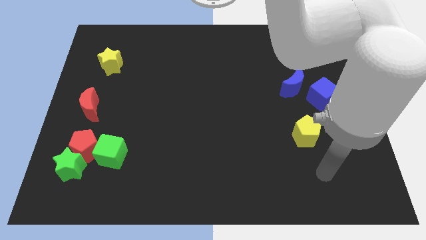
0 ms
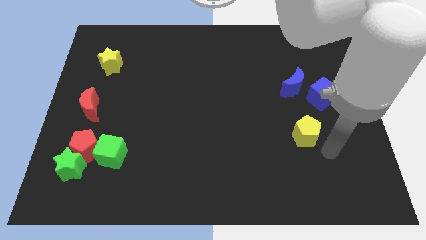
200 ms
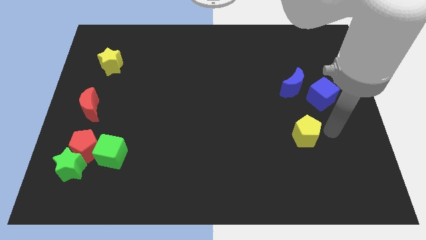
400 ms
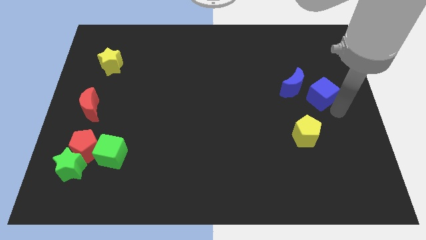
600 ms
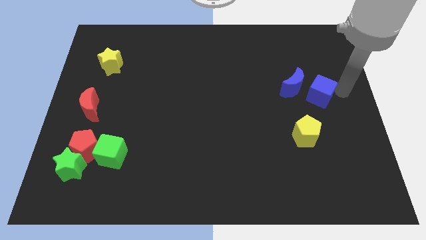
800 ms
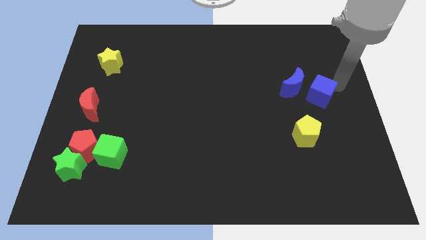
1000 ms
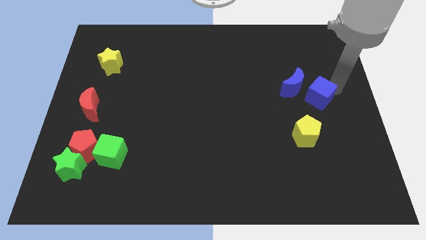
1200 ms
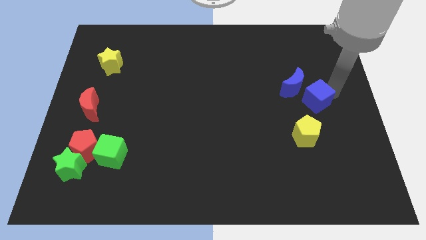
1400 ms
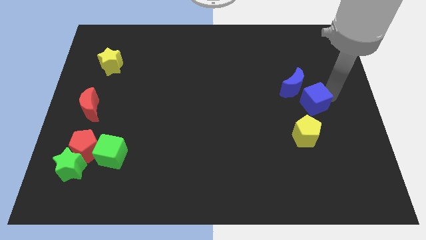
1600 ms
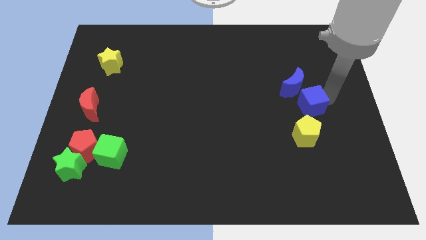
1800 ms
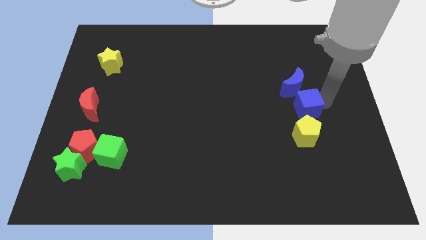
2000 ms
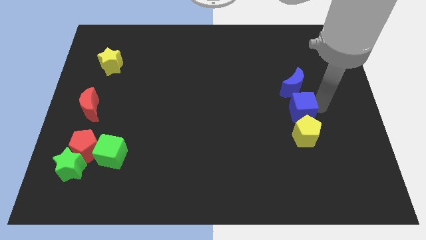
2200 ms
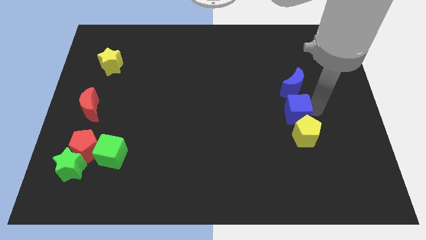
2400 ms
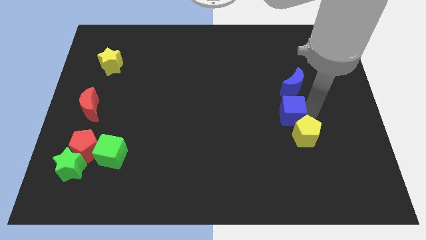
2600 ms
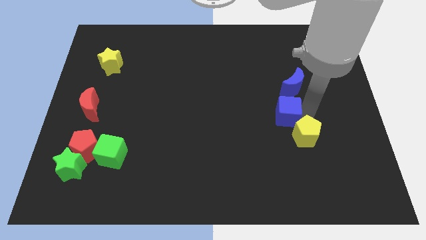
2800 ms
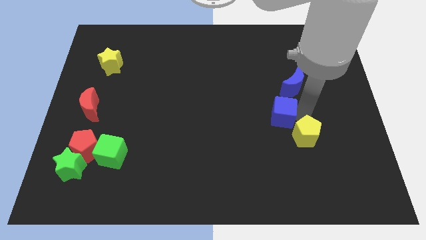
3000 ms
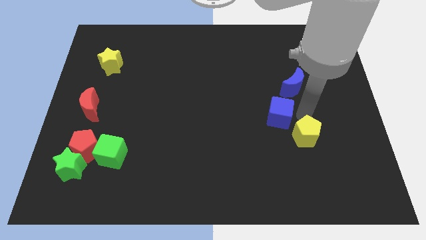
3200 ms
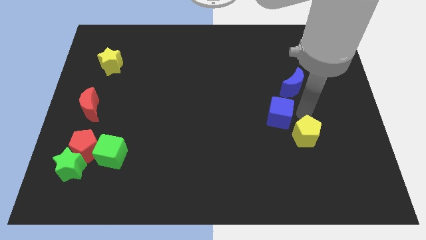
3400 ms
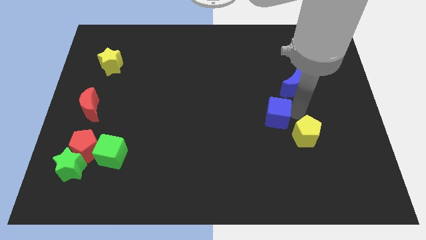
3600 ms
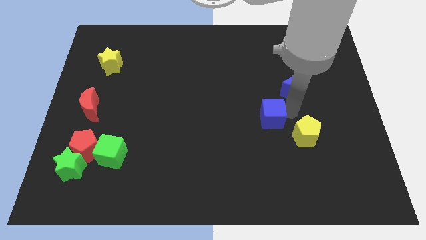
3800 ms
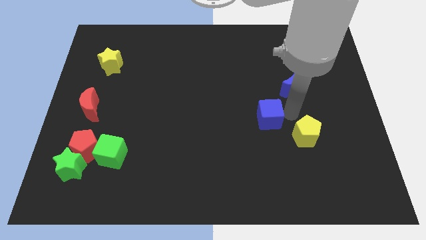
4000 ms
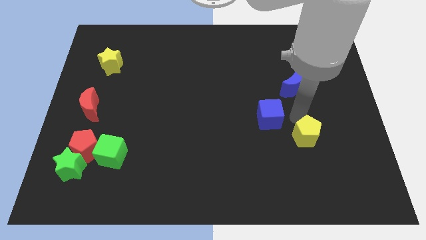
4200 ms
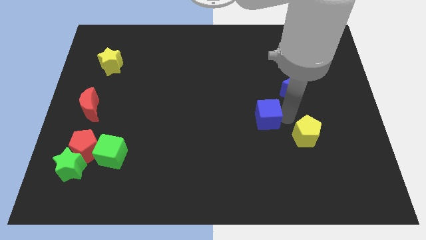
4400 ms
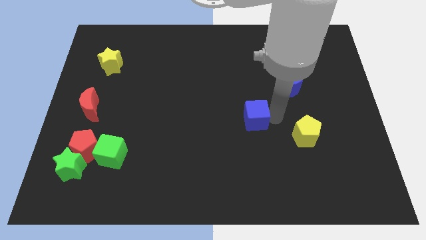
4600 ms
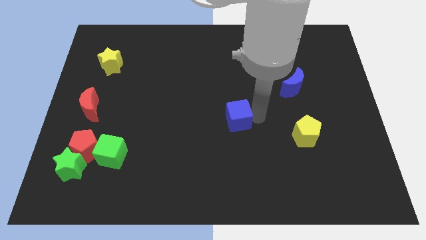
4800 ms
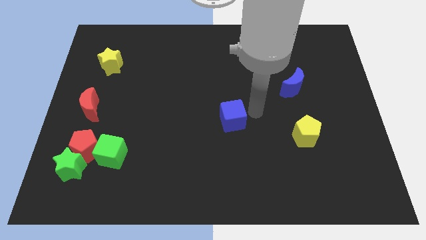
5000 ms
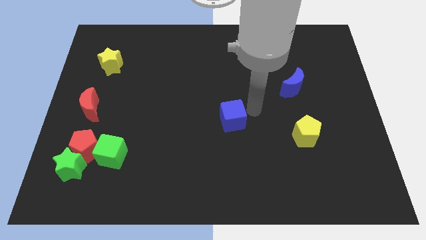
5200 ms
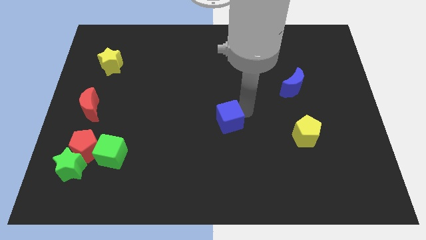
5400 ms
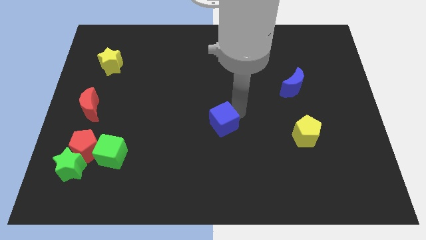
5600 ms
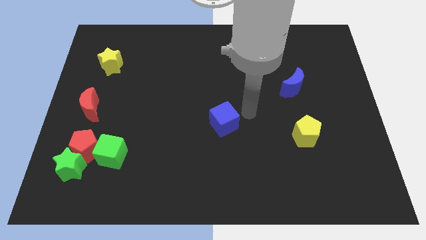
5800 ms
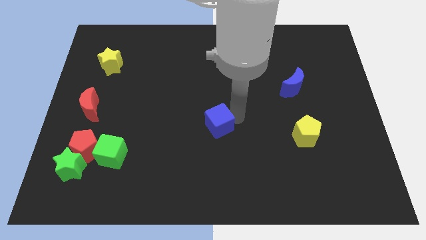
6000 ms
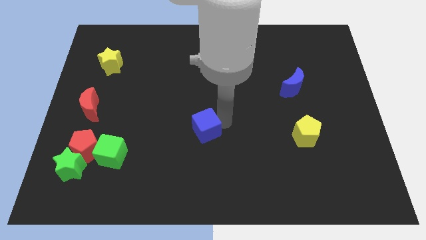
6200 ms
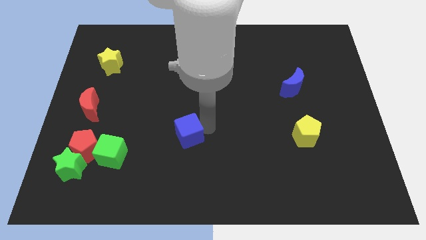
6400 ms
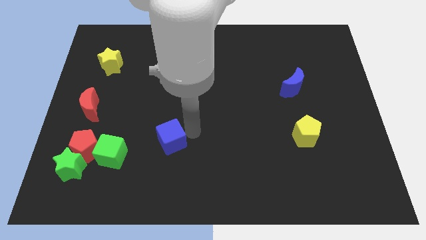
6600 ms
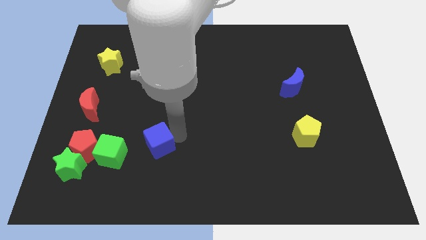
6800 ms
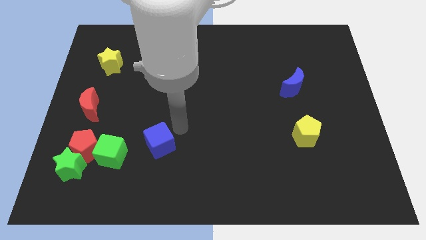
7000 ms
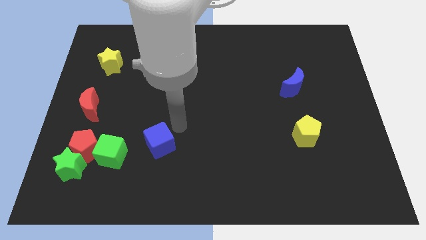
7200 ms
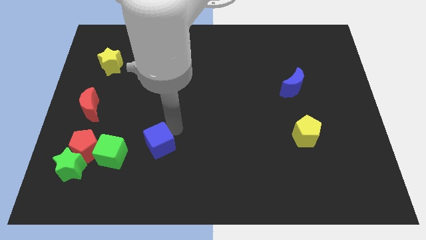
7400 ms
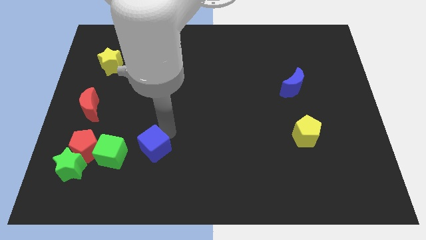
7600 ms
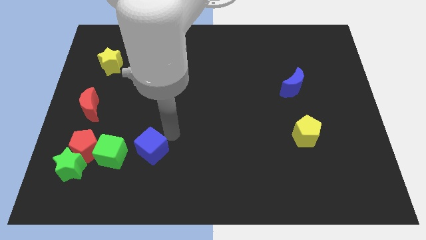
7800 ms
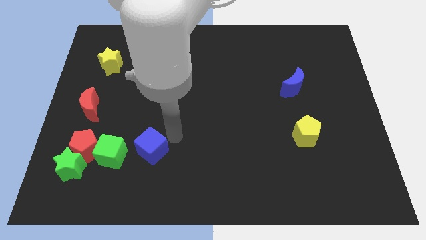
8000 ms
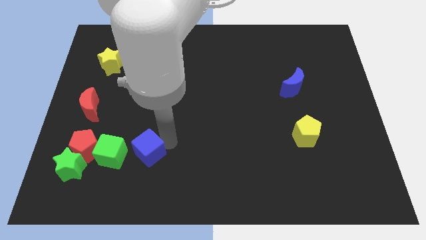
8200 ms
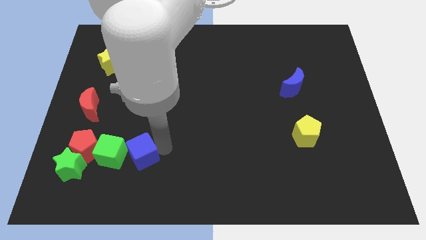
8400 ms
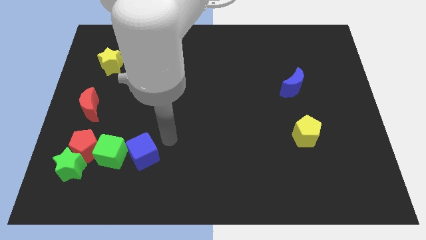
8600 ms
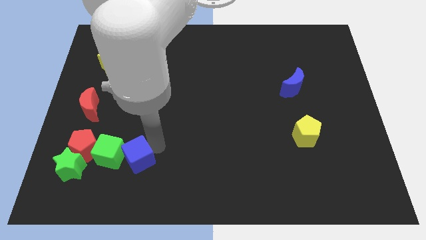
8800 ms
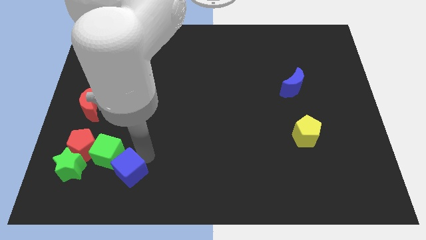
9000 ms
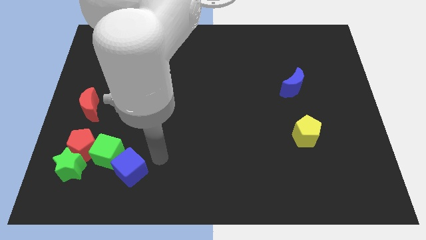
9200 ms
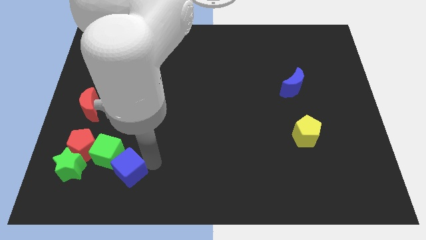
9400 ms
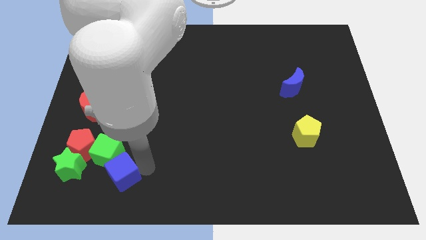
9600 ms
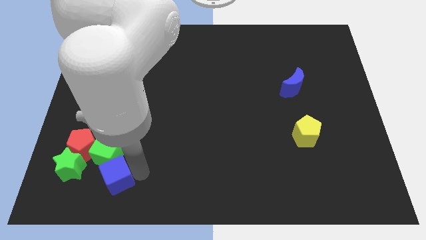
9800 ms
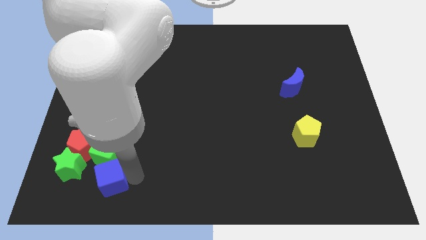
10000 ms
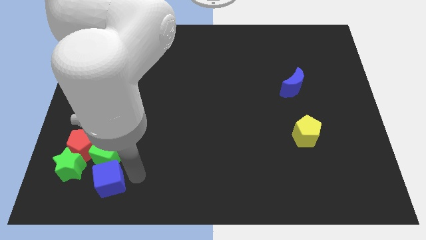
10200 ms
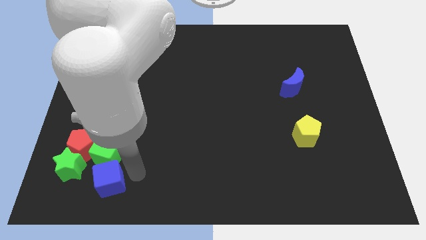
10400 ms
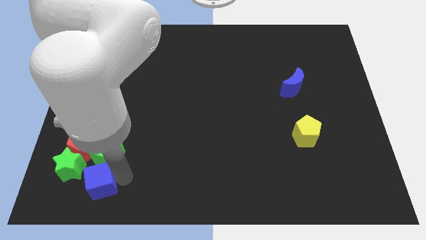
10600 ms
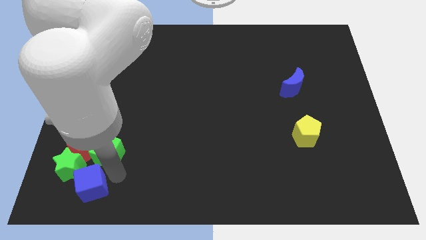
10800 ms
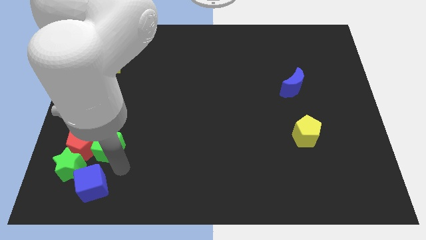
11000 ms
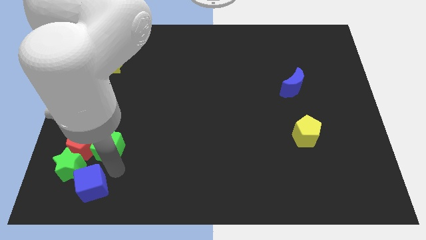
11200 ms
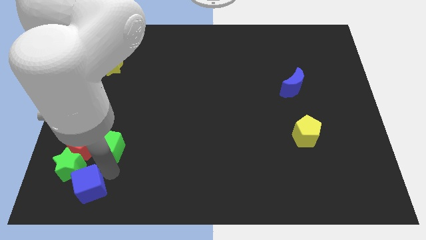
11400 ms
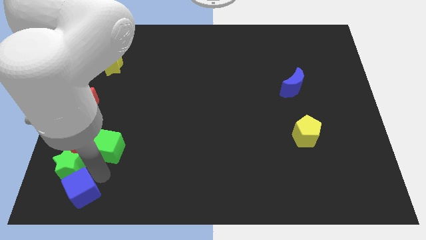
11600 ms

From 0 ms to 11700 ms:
slide the blue cube to the bottom left corner
